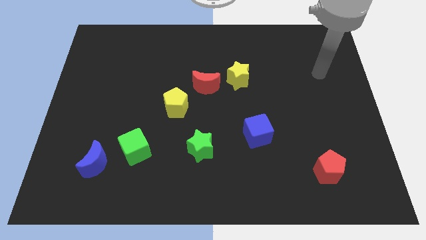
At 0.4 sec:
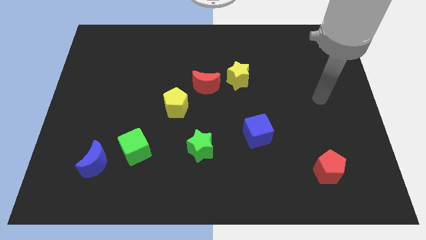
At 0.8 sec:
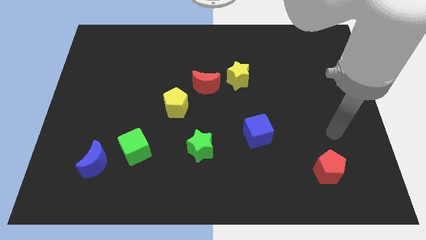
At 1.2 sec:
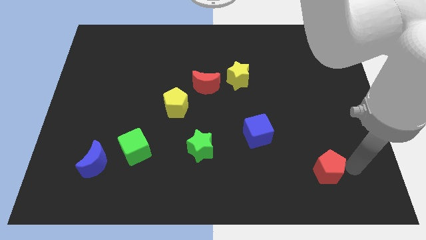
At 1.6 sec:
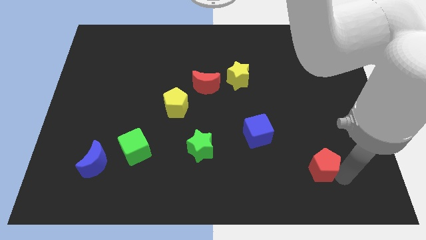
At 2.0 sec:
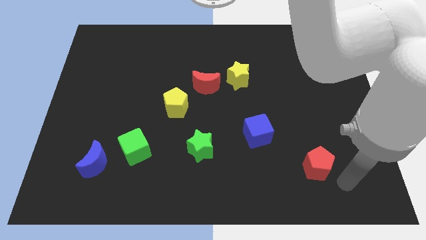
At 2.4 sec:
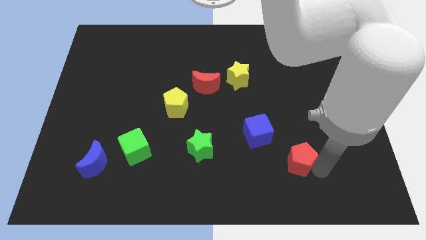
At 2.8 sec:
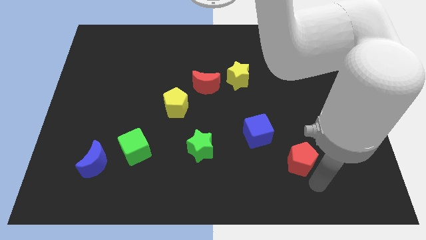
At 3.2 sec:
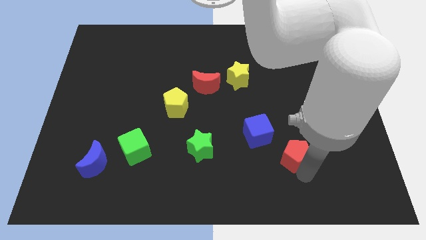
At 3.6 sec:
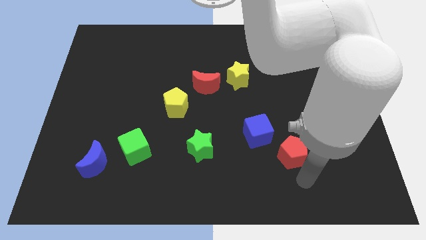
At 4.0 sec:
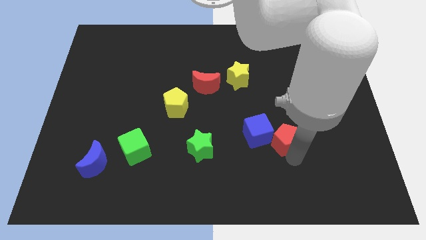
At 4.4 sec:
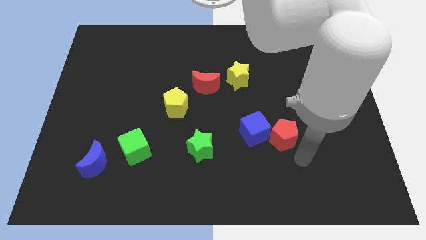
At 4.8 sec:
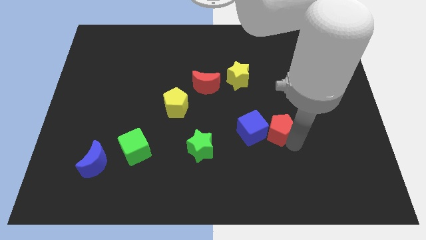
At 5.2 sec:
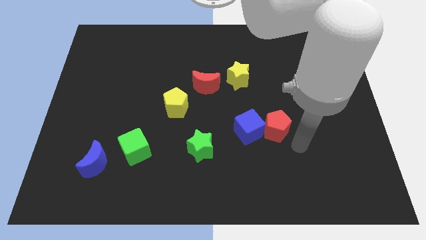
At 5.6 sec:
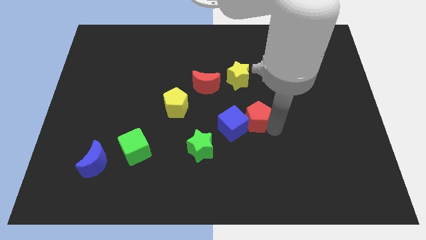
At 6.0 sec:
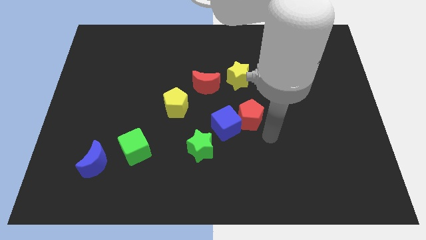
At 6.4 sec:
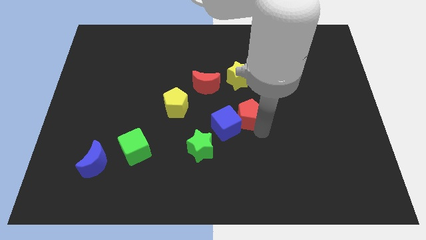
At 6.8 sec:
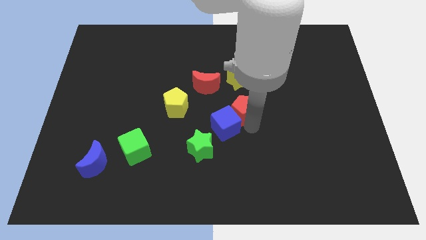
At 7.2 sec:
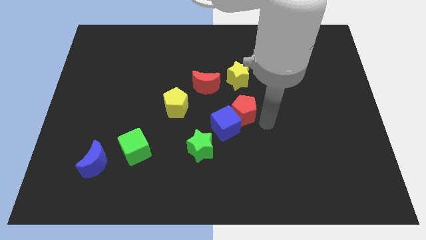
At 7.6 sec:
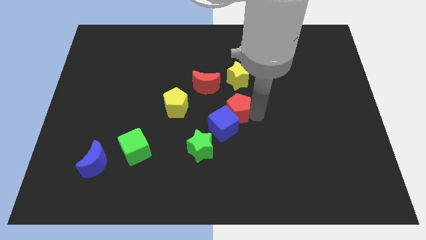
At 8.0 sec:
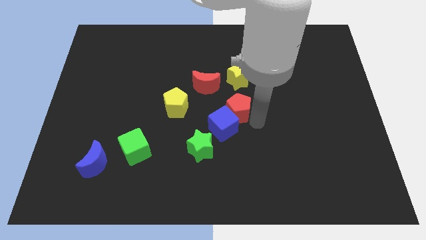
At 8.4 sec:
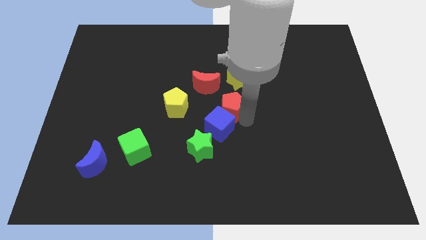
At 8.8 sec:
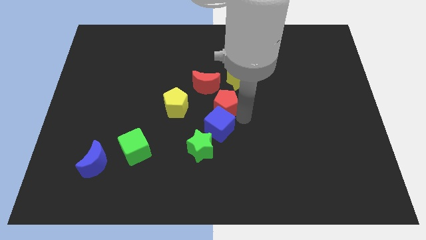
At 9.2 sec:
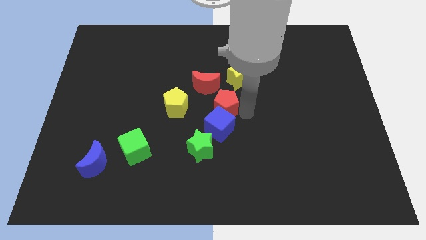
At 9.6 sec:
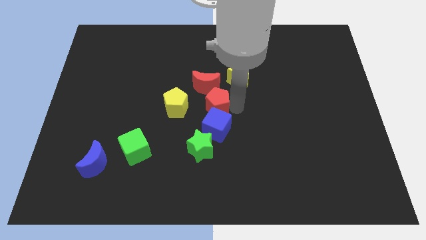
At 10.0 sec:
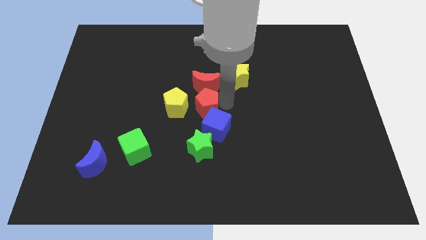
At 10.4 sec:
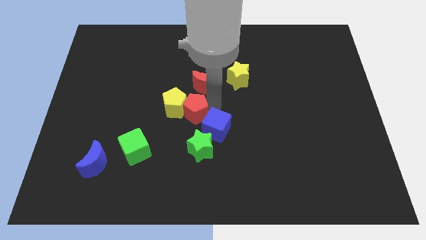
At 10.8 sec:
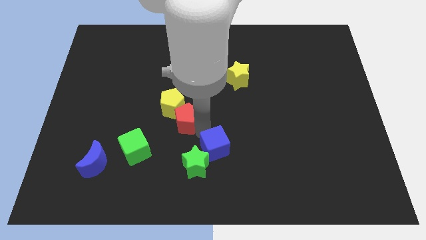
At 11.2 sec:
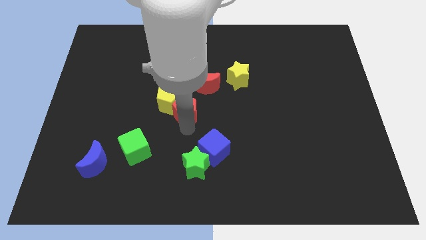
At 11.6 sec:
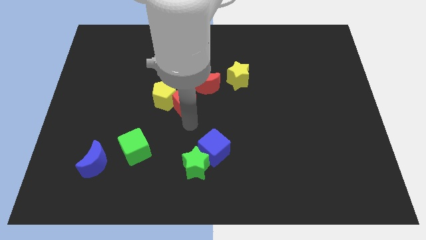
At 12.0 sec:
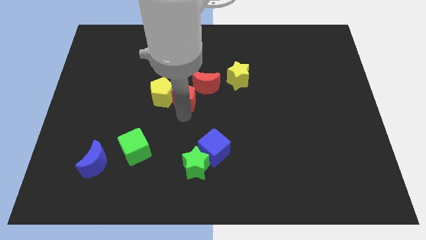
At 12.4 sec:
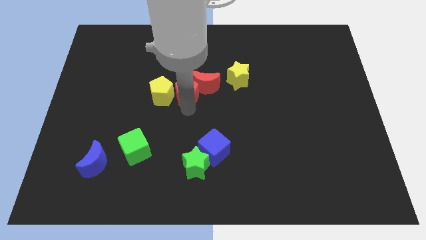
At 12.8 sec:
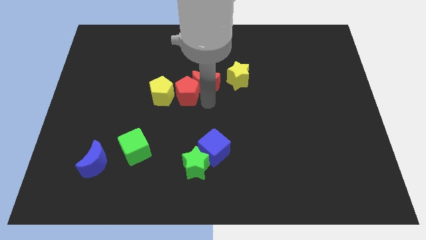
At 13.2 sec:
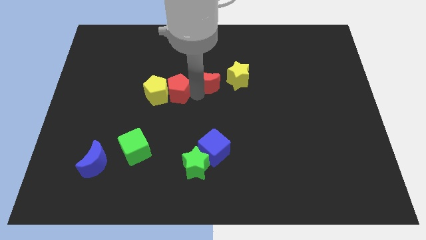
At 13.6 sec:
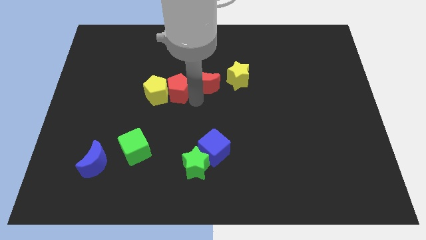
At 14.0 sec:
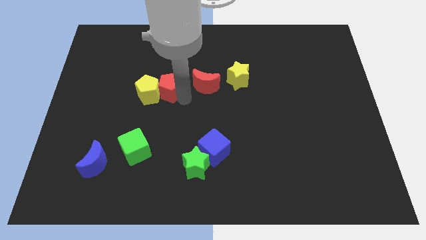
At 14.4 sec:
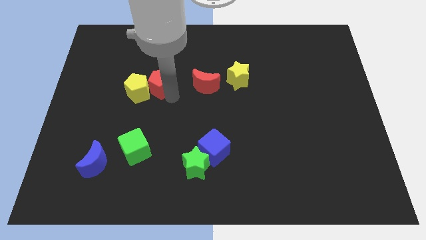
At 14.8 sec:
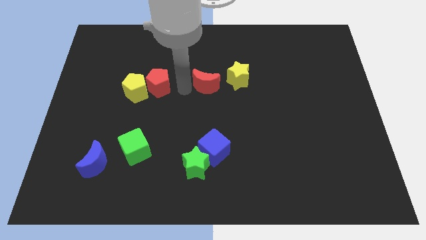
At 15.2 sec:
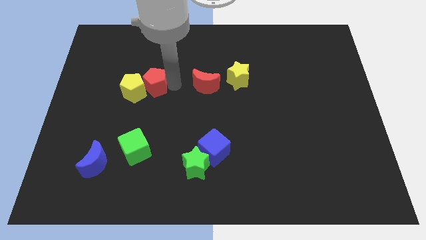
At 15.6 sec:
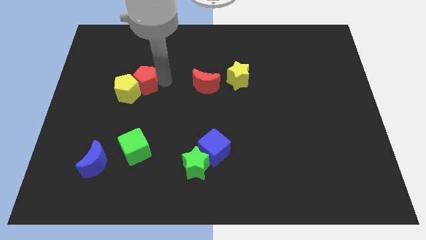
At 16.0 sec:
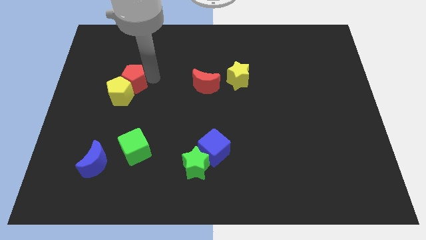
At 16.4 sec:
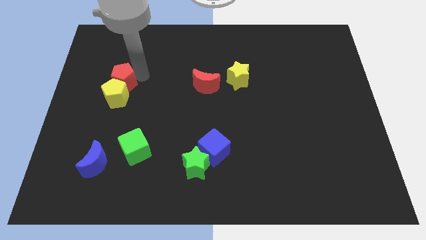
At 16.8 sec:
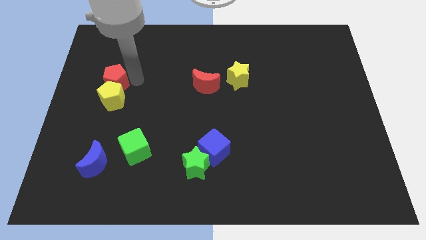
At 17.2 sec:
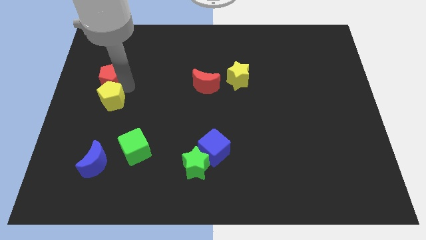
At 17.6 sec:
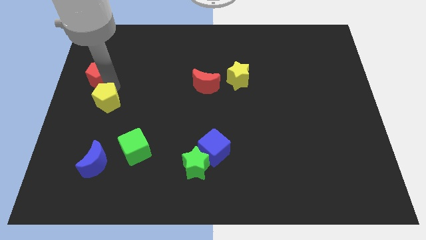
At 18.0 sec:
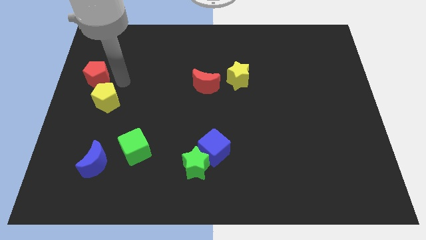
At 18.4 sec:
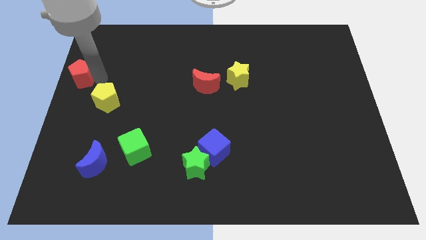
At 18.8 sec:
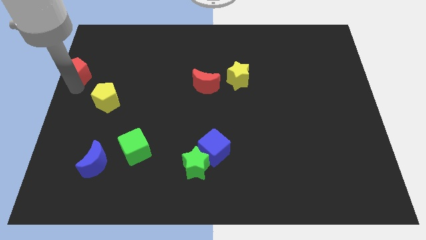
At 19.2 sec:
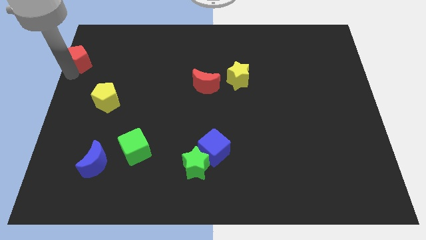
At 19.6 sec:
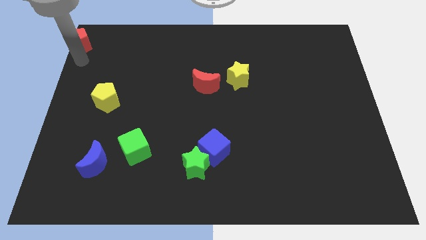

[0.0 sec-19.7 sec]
put the red pentagon to the upper left corner

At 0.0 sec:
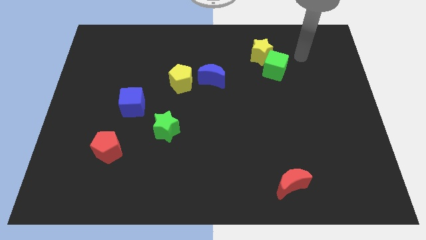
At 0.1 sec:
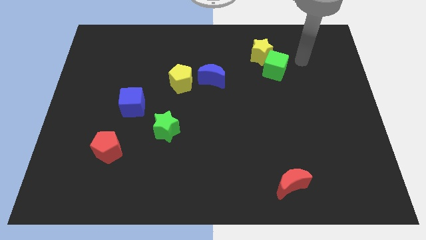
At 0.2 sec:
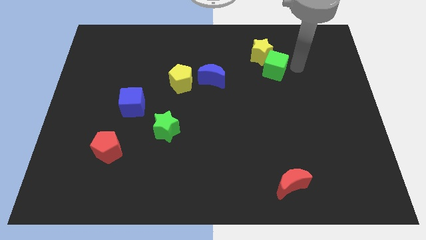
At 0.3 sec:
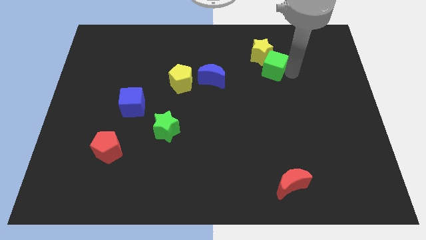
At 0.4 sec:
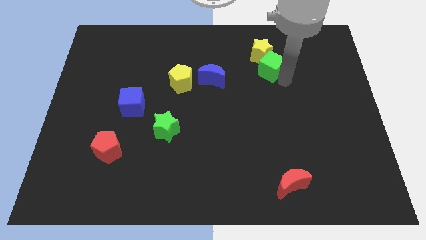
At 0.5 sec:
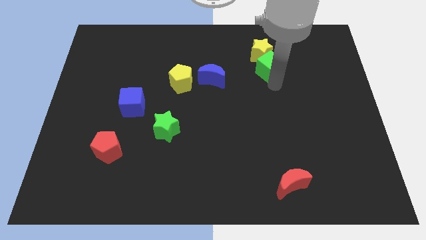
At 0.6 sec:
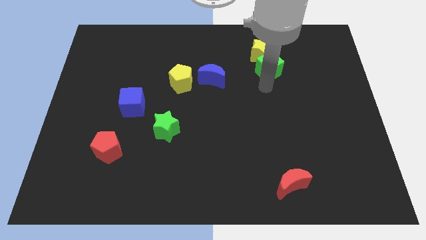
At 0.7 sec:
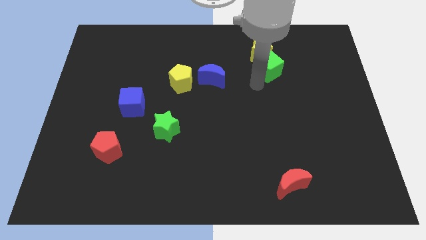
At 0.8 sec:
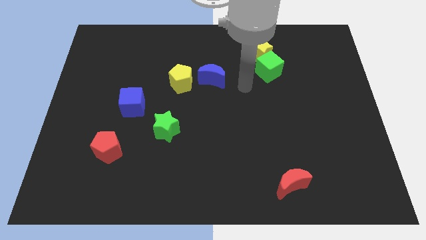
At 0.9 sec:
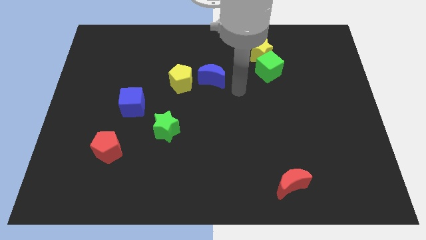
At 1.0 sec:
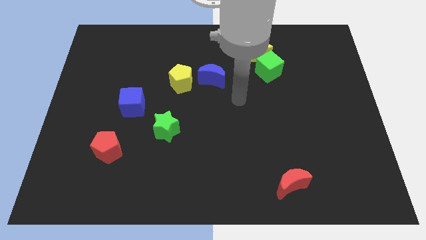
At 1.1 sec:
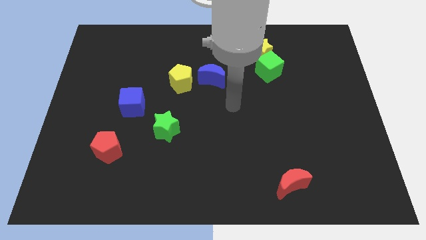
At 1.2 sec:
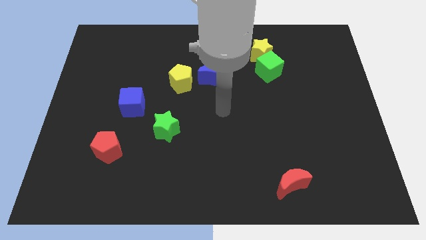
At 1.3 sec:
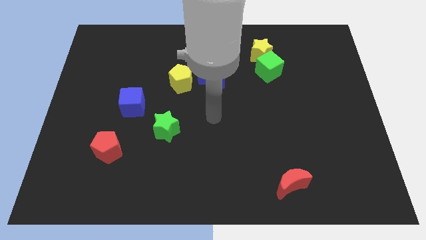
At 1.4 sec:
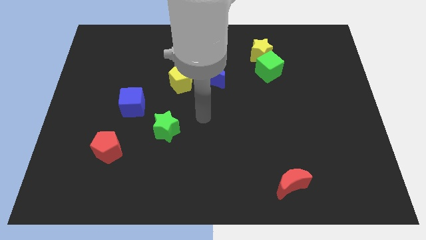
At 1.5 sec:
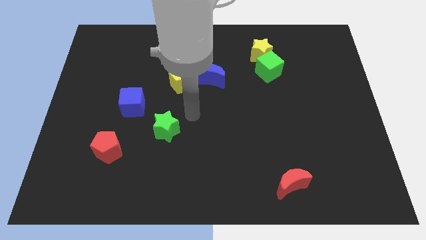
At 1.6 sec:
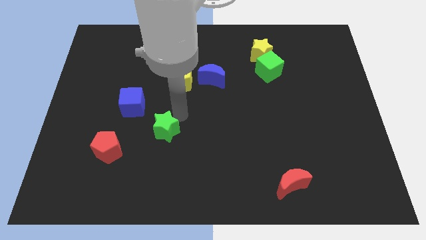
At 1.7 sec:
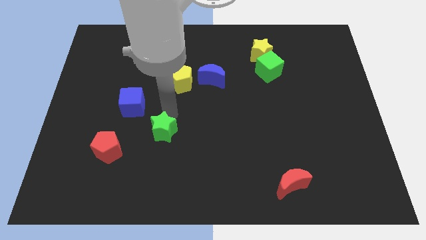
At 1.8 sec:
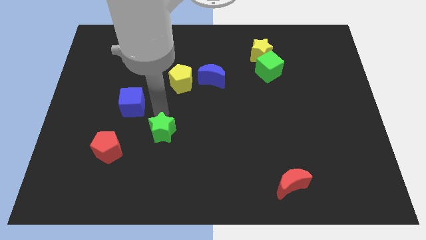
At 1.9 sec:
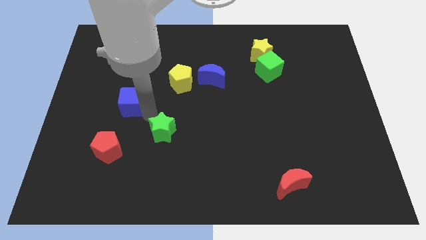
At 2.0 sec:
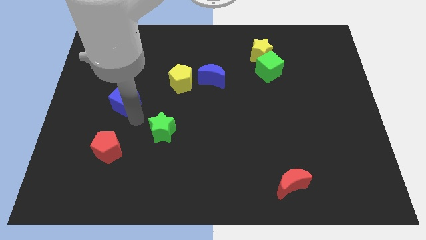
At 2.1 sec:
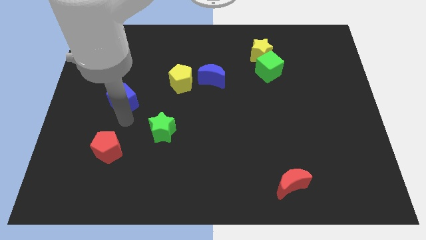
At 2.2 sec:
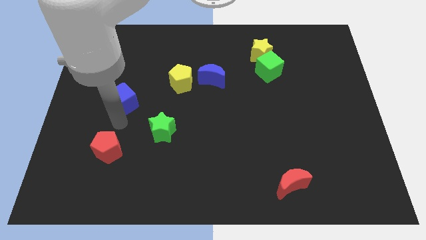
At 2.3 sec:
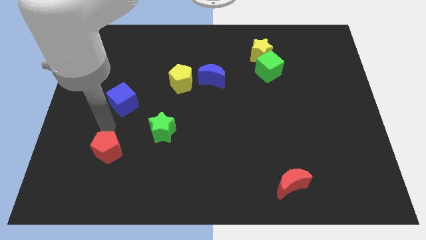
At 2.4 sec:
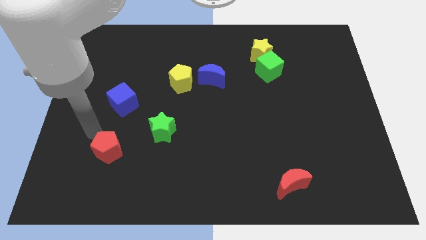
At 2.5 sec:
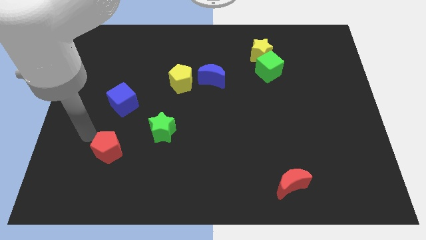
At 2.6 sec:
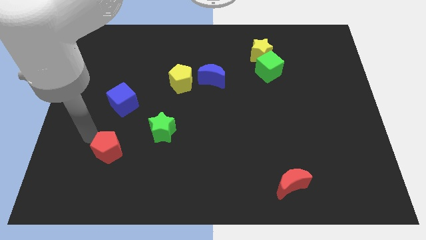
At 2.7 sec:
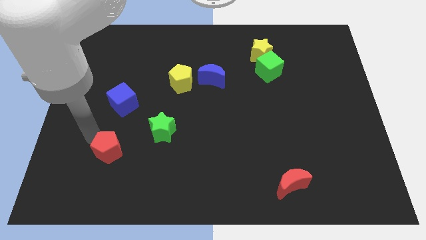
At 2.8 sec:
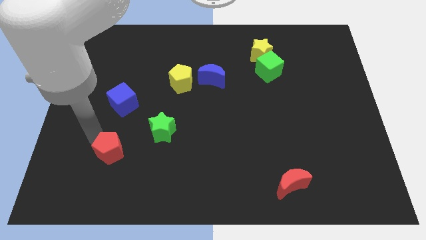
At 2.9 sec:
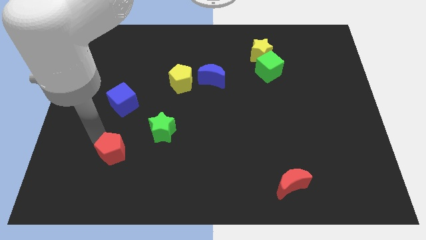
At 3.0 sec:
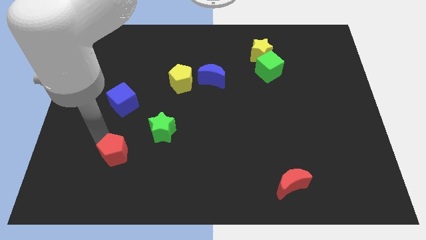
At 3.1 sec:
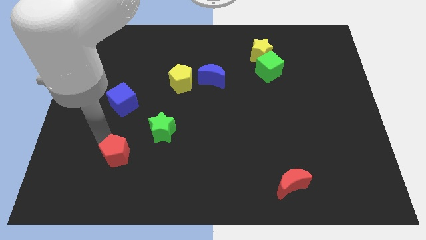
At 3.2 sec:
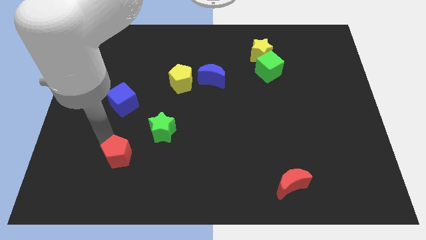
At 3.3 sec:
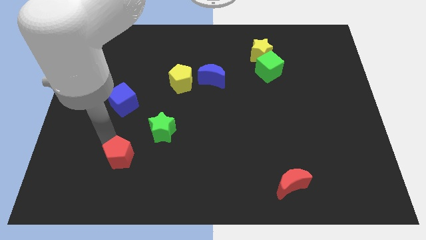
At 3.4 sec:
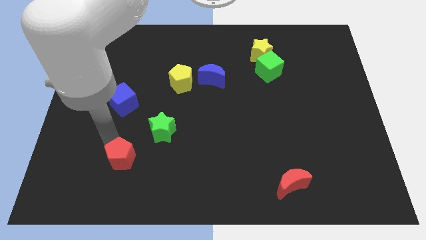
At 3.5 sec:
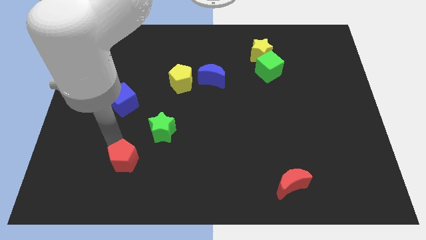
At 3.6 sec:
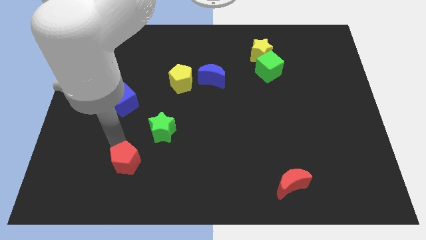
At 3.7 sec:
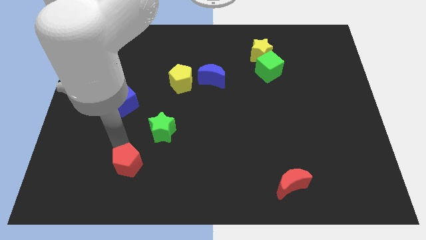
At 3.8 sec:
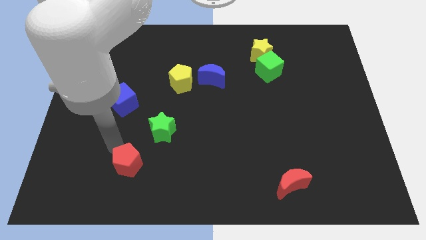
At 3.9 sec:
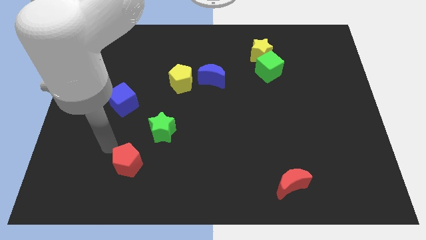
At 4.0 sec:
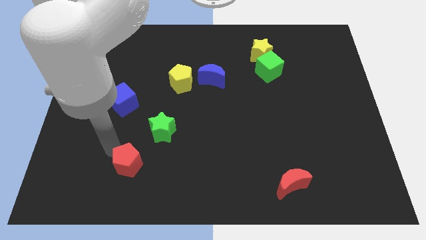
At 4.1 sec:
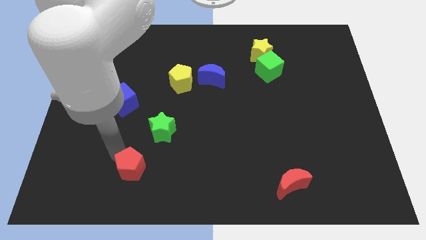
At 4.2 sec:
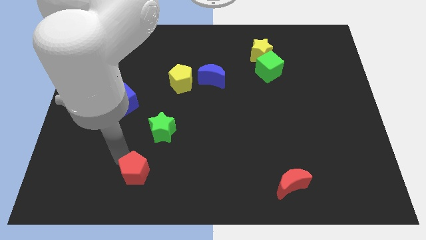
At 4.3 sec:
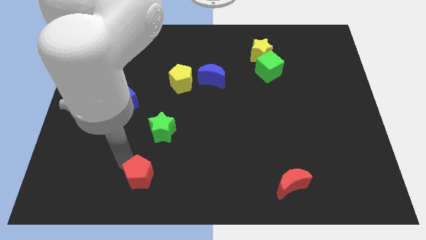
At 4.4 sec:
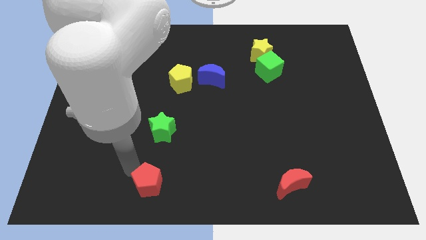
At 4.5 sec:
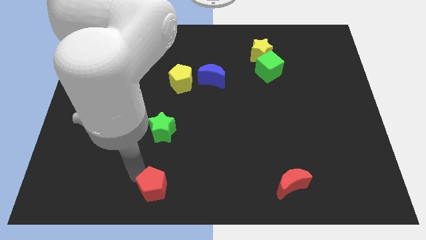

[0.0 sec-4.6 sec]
move the red pentagon to the bottom
